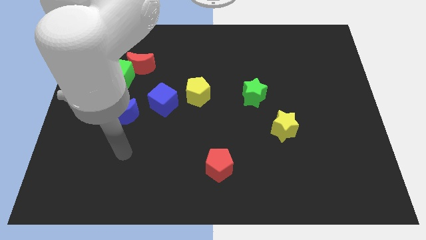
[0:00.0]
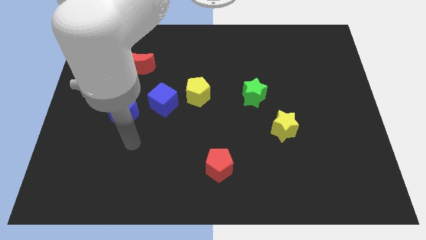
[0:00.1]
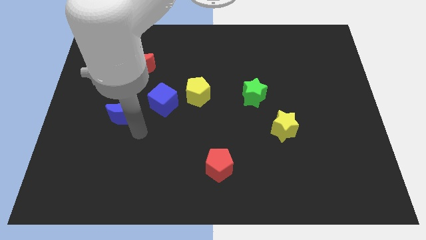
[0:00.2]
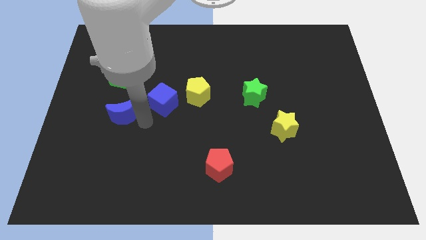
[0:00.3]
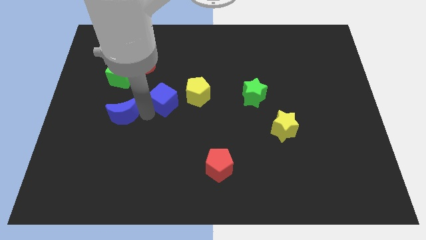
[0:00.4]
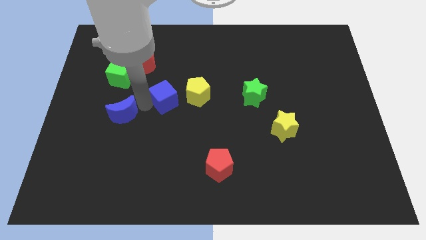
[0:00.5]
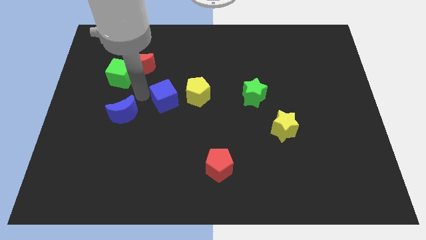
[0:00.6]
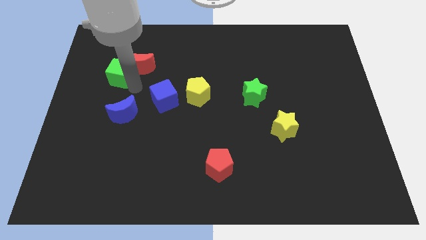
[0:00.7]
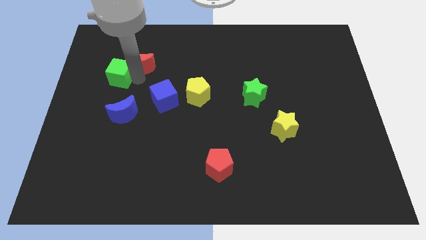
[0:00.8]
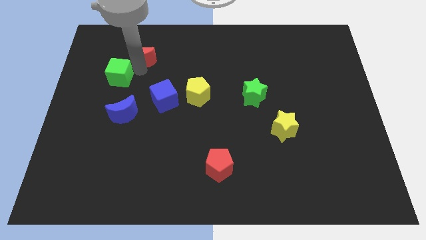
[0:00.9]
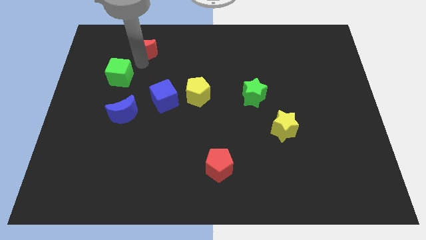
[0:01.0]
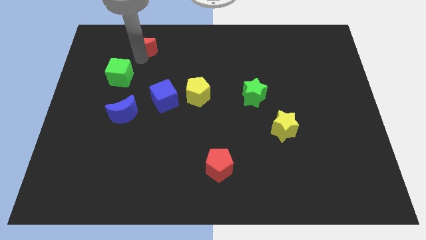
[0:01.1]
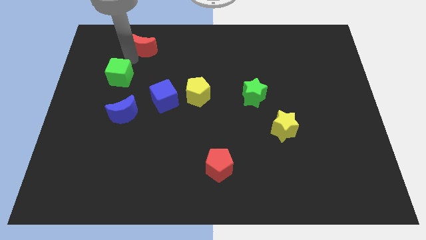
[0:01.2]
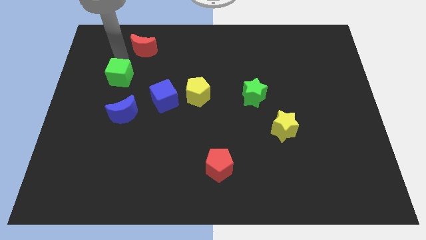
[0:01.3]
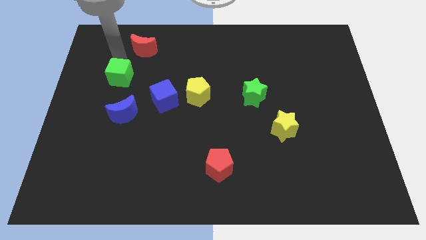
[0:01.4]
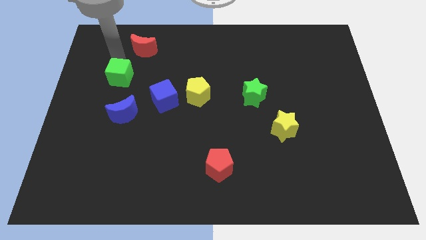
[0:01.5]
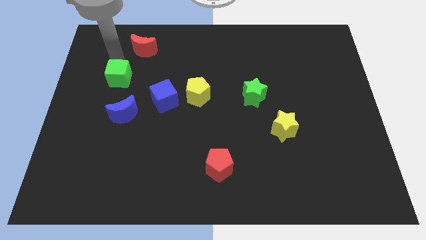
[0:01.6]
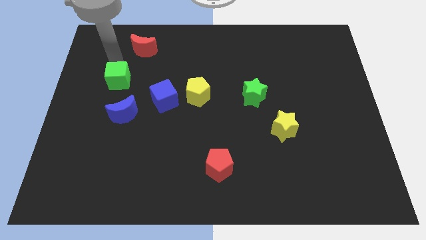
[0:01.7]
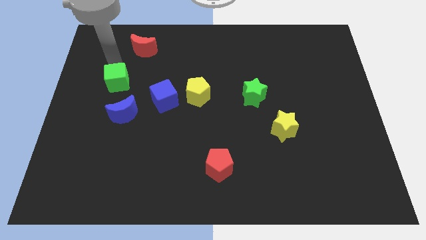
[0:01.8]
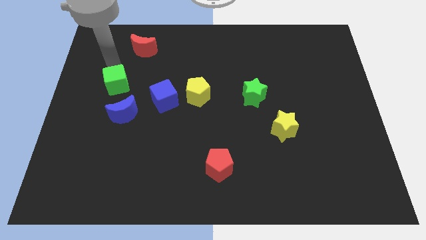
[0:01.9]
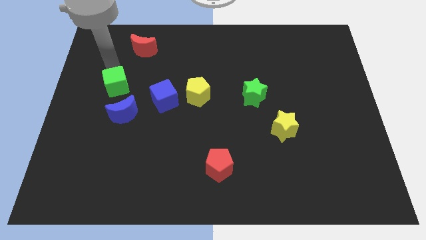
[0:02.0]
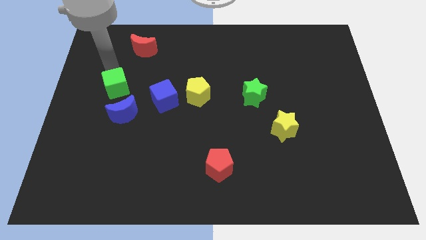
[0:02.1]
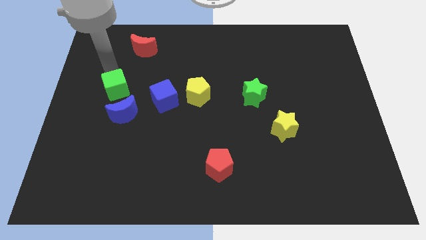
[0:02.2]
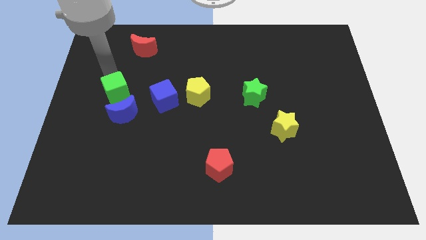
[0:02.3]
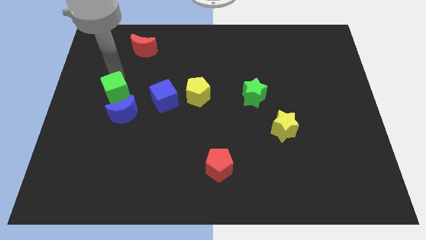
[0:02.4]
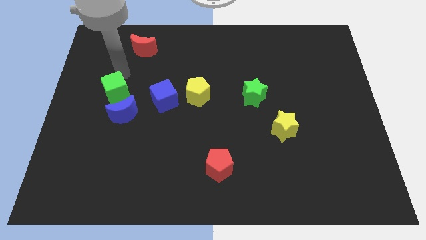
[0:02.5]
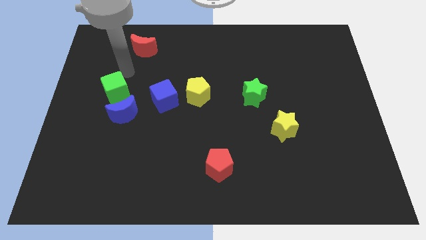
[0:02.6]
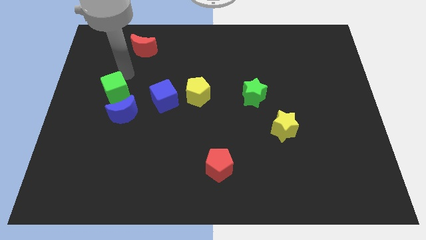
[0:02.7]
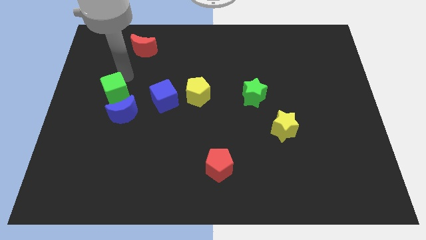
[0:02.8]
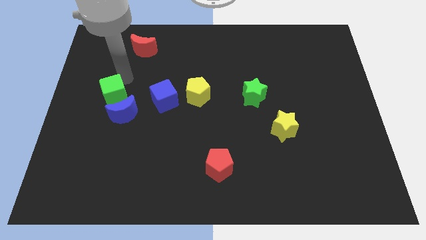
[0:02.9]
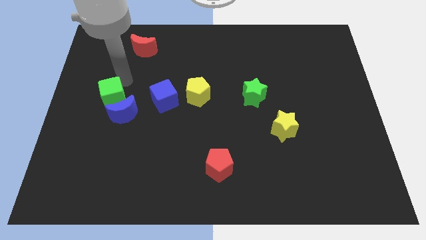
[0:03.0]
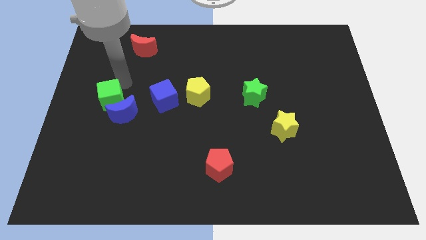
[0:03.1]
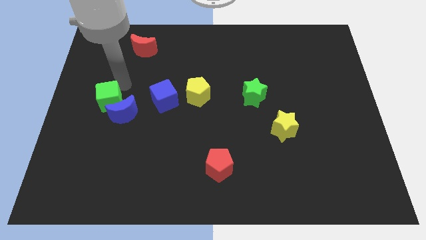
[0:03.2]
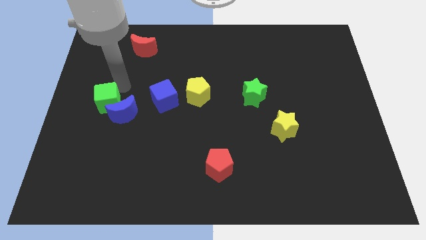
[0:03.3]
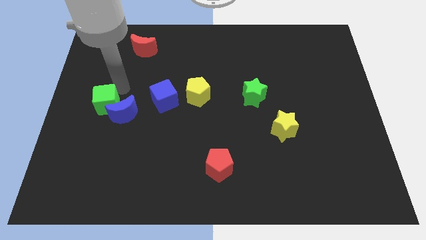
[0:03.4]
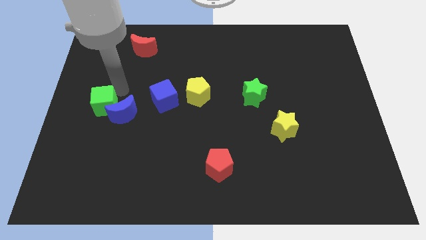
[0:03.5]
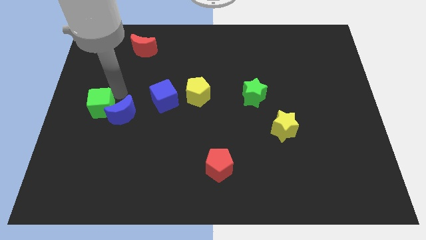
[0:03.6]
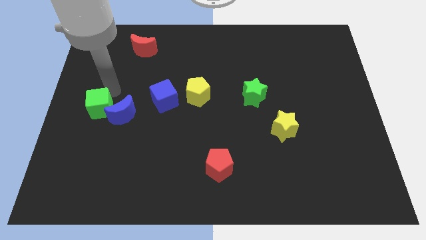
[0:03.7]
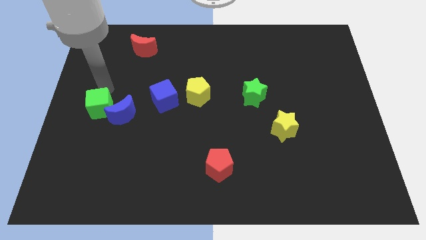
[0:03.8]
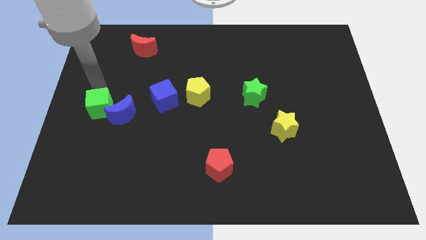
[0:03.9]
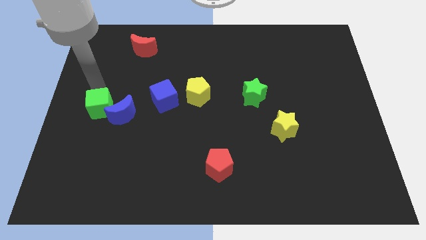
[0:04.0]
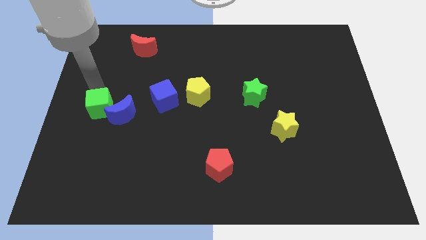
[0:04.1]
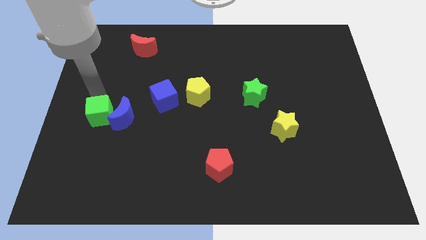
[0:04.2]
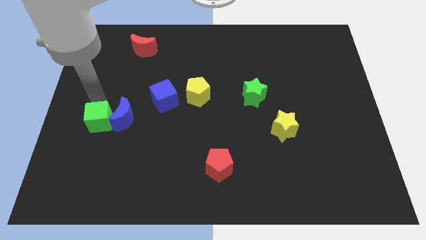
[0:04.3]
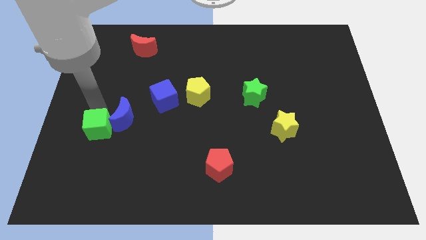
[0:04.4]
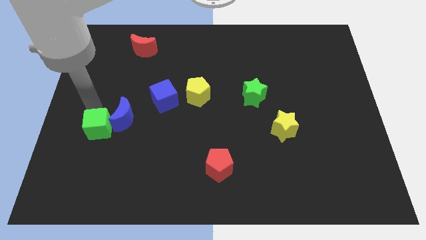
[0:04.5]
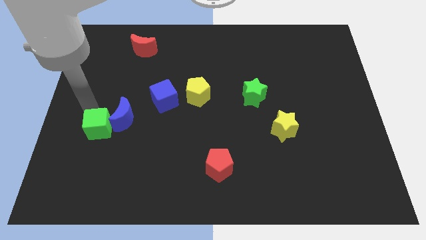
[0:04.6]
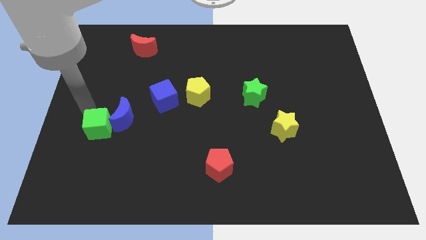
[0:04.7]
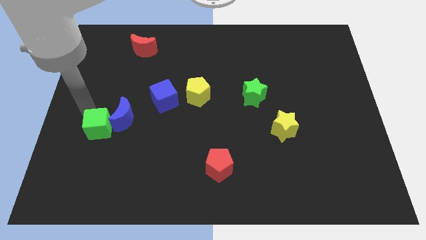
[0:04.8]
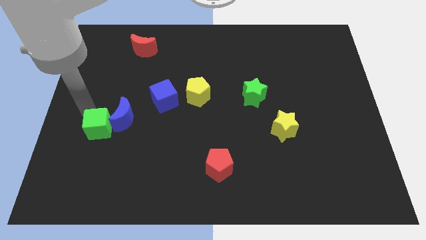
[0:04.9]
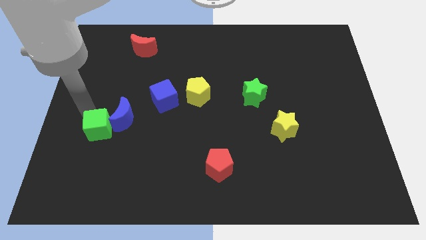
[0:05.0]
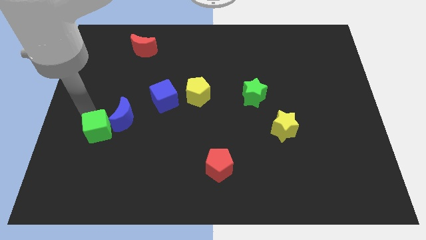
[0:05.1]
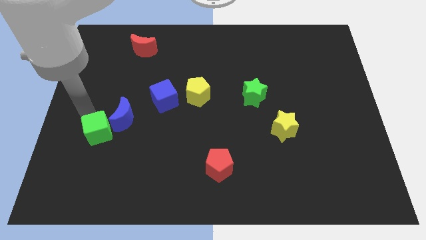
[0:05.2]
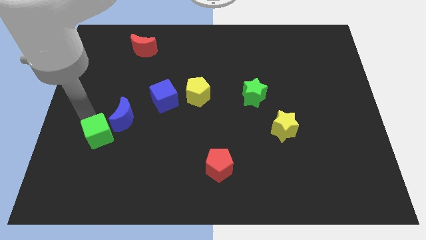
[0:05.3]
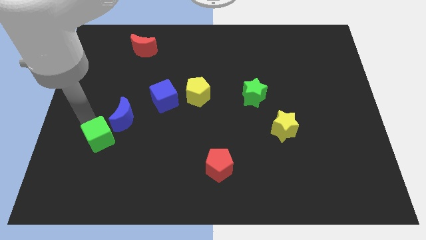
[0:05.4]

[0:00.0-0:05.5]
slide the green cube to the bottom of the blue moon

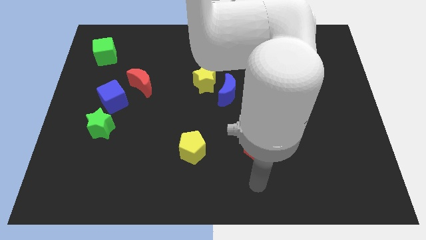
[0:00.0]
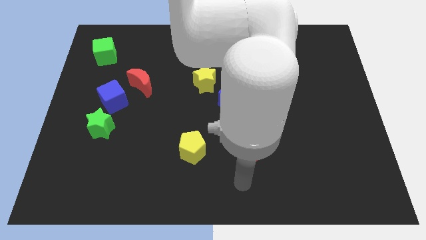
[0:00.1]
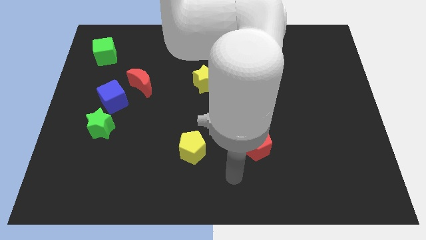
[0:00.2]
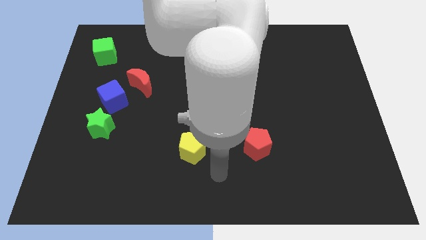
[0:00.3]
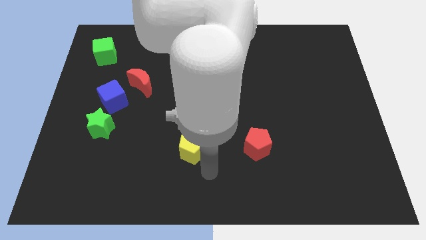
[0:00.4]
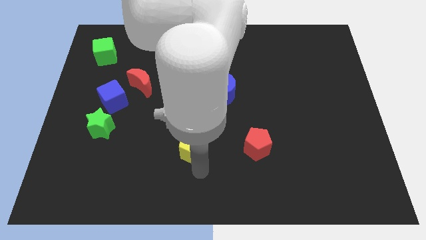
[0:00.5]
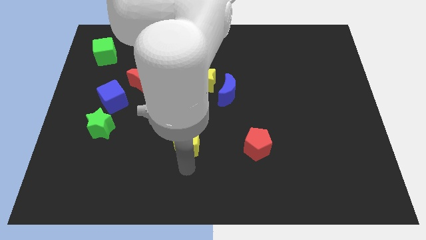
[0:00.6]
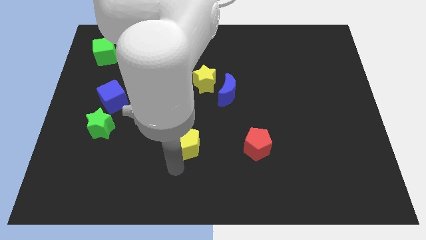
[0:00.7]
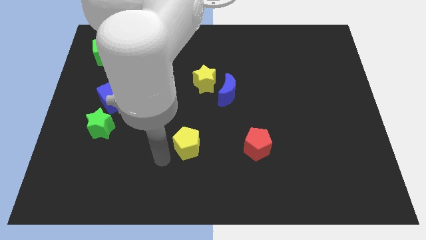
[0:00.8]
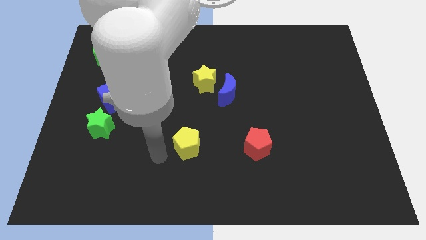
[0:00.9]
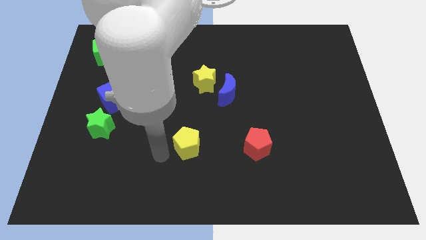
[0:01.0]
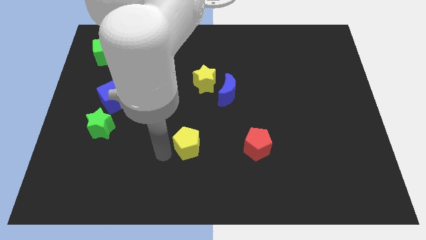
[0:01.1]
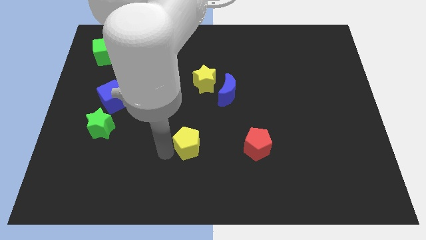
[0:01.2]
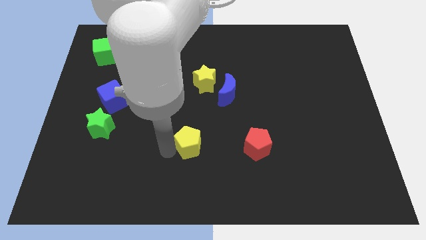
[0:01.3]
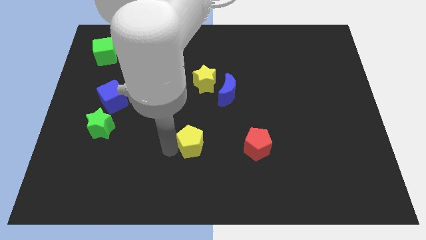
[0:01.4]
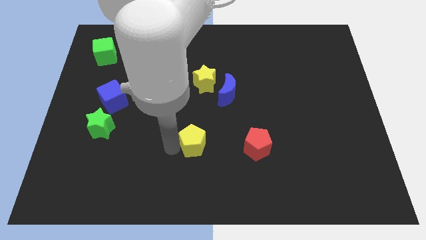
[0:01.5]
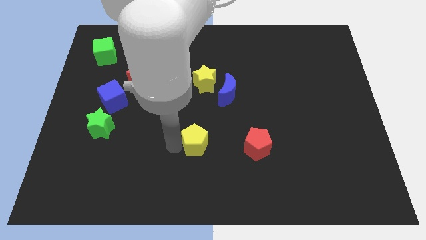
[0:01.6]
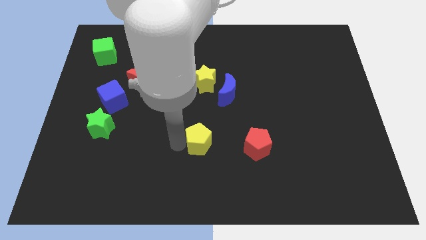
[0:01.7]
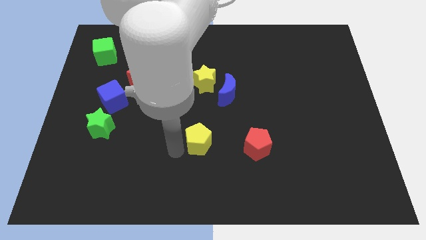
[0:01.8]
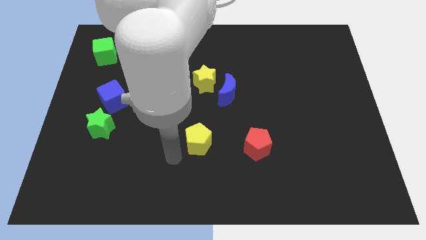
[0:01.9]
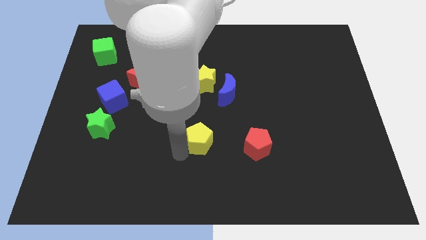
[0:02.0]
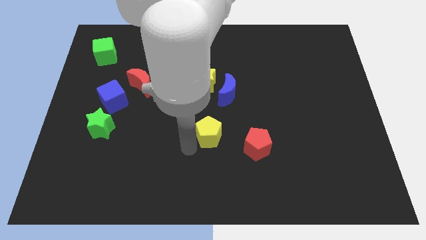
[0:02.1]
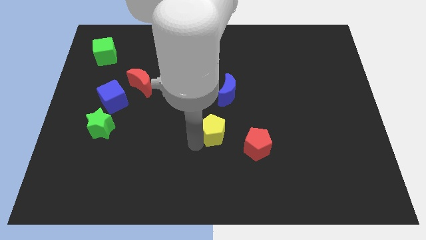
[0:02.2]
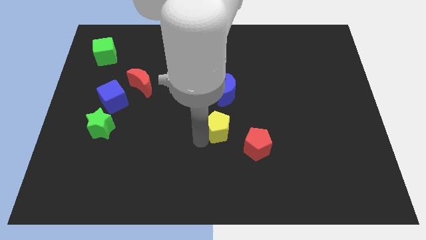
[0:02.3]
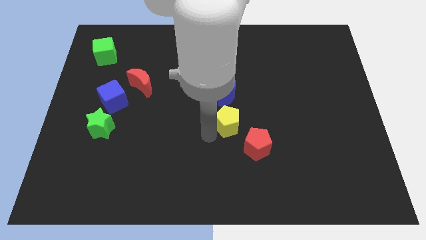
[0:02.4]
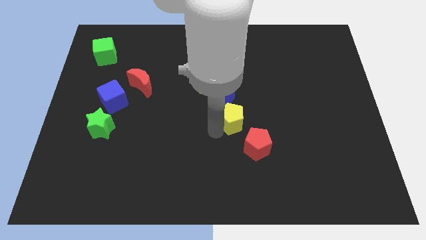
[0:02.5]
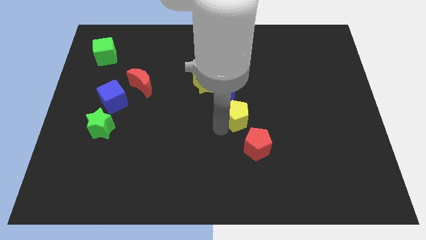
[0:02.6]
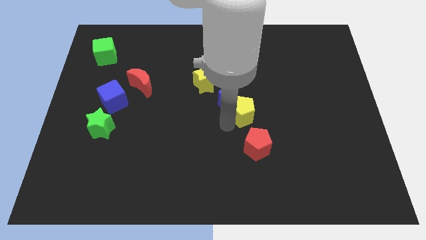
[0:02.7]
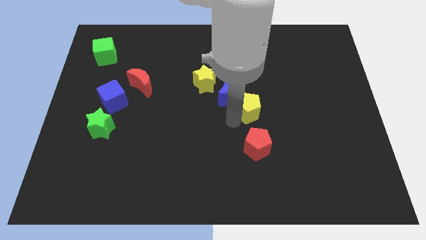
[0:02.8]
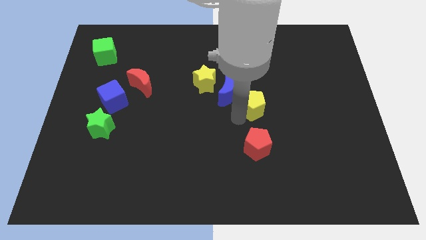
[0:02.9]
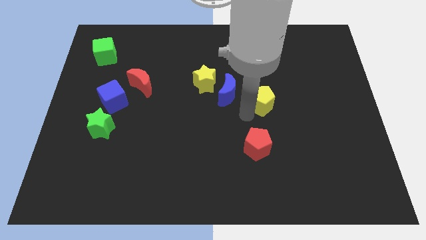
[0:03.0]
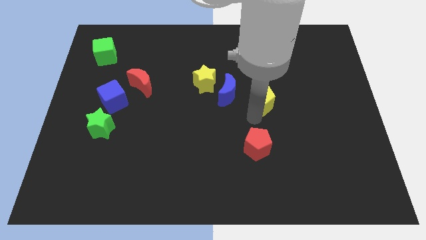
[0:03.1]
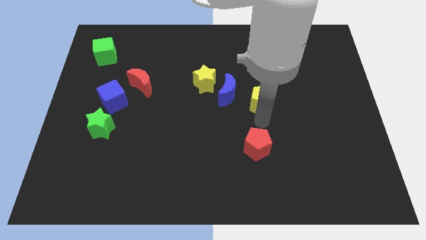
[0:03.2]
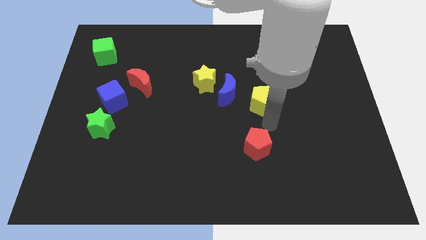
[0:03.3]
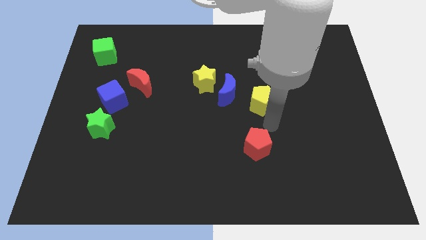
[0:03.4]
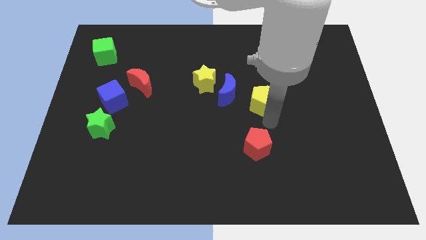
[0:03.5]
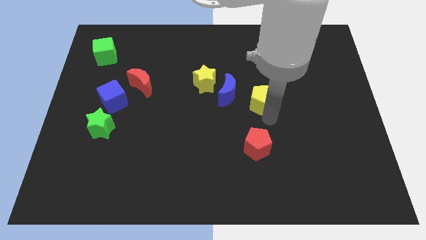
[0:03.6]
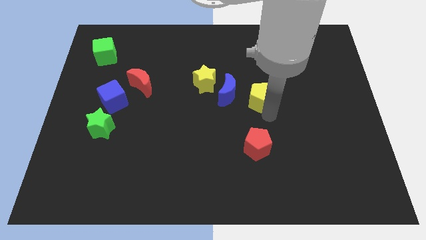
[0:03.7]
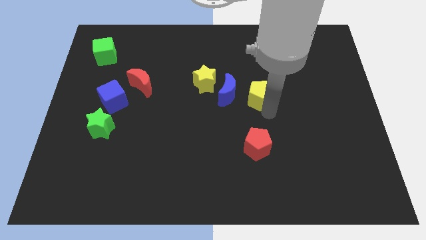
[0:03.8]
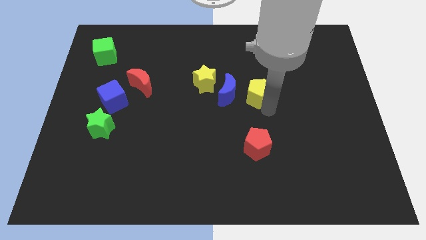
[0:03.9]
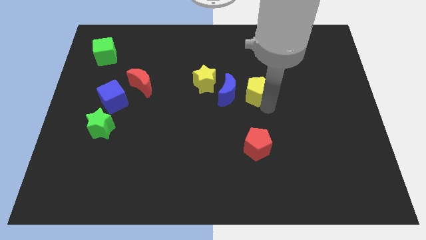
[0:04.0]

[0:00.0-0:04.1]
push the yellow pentagon to the top right of the blue moon
